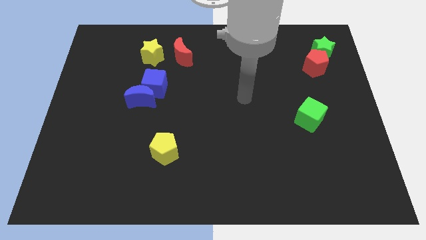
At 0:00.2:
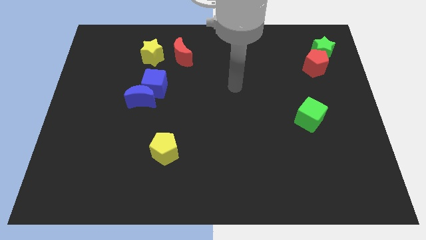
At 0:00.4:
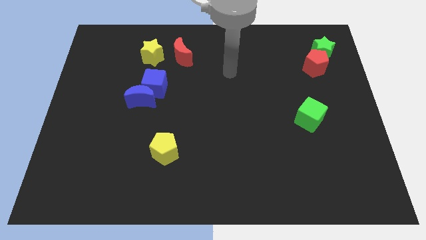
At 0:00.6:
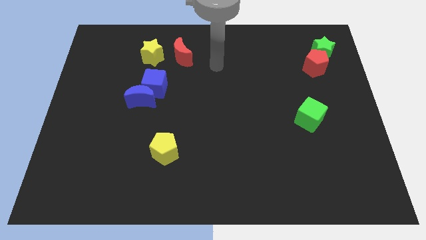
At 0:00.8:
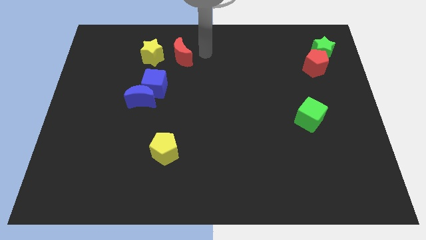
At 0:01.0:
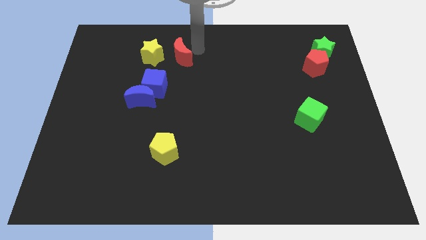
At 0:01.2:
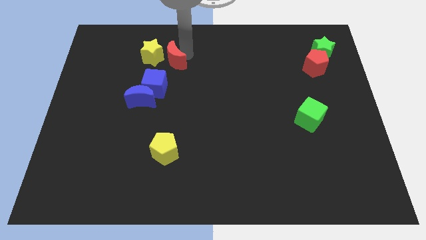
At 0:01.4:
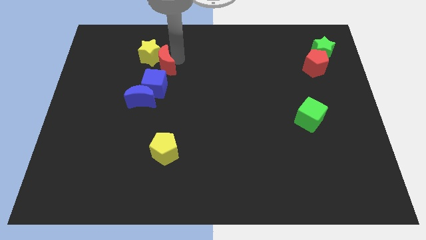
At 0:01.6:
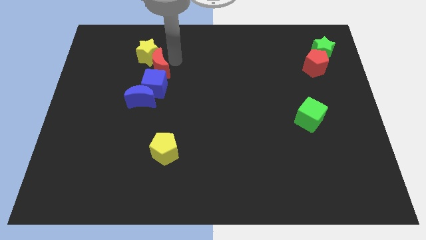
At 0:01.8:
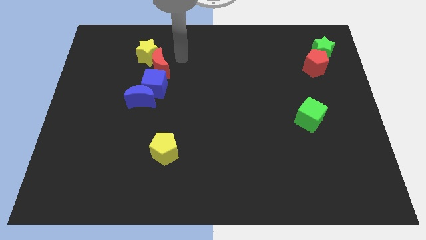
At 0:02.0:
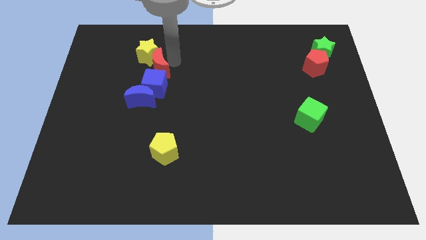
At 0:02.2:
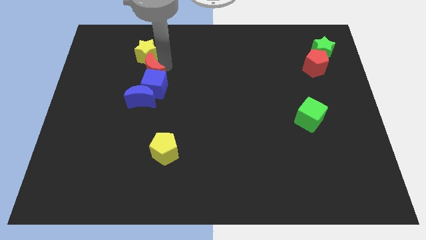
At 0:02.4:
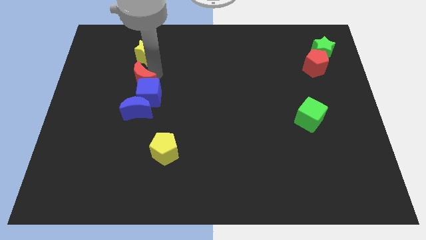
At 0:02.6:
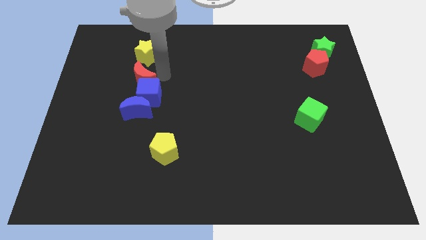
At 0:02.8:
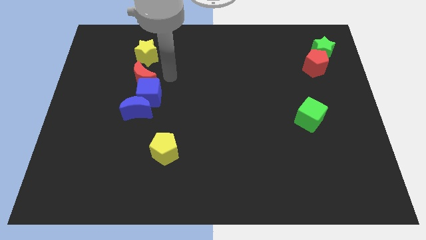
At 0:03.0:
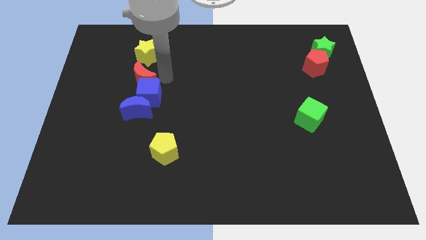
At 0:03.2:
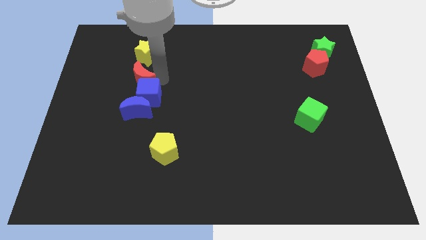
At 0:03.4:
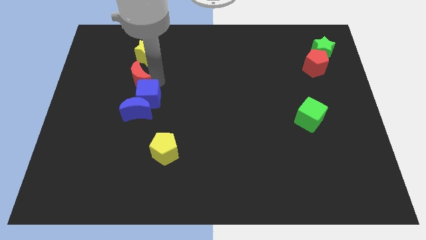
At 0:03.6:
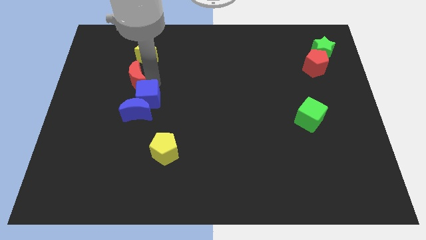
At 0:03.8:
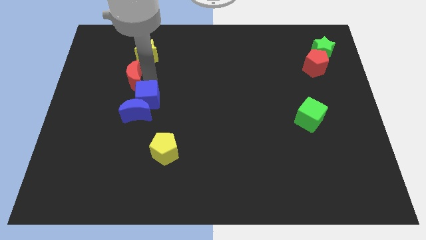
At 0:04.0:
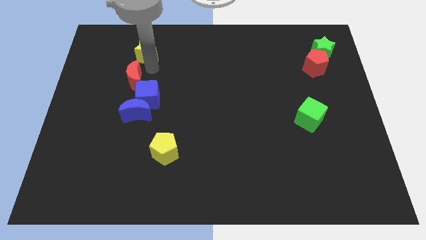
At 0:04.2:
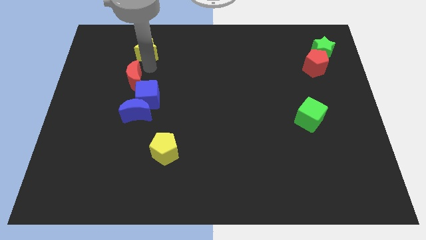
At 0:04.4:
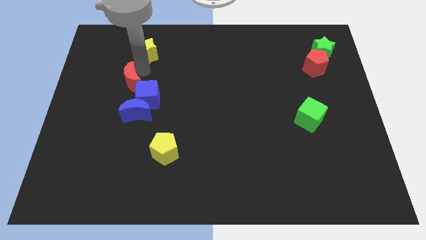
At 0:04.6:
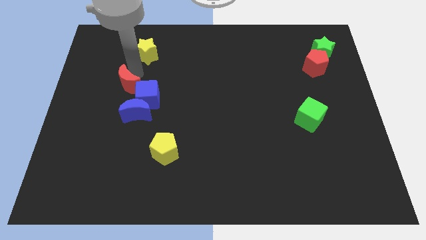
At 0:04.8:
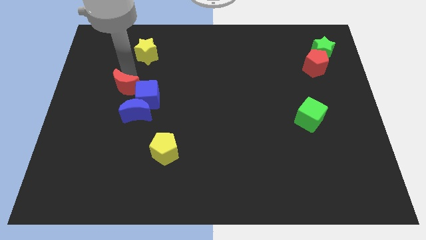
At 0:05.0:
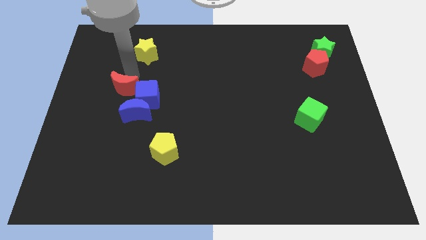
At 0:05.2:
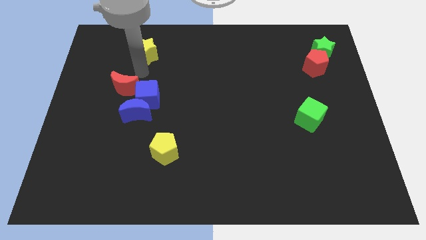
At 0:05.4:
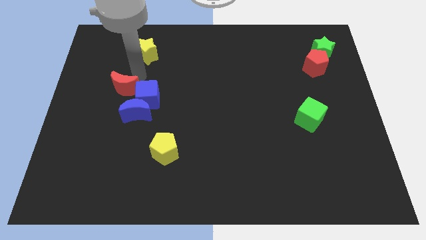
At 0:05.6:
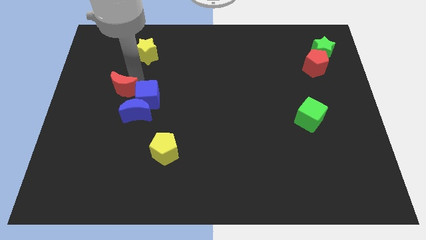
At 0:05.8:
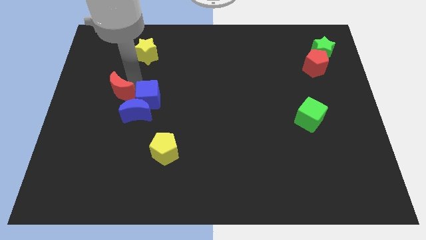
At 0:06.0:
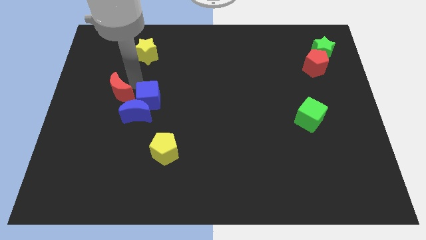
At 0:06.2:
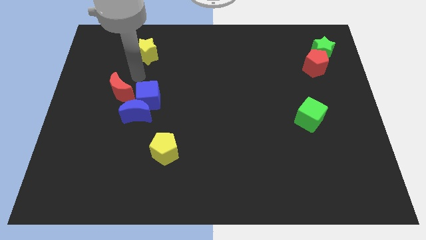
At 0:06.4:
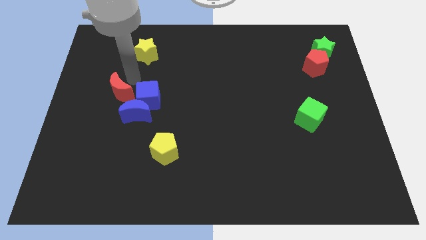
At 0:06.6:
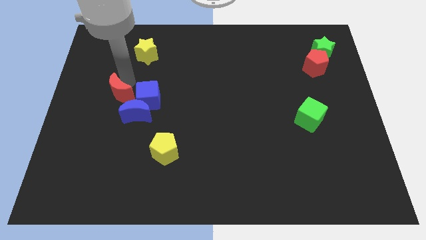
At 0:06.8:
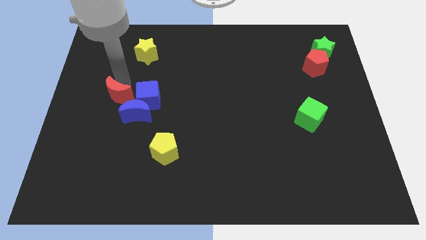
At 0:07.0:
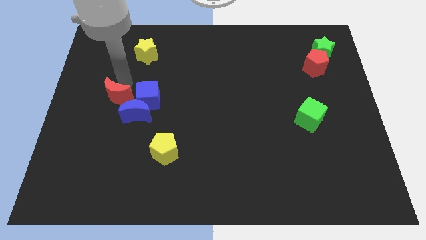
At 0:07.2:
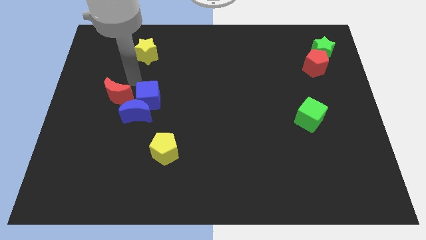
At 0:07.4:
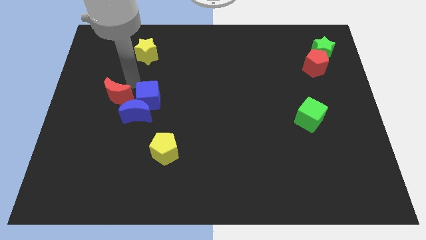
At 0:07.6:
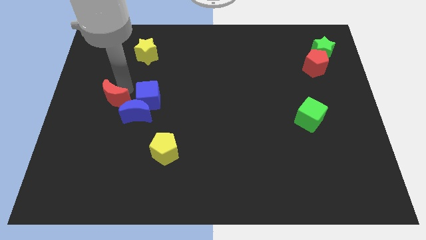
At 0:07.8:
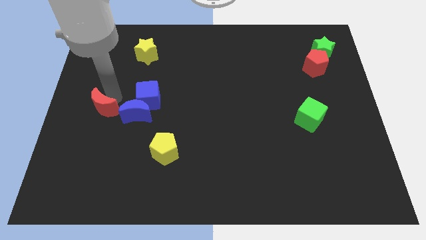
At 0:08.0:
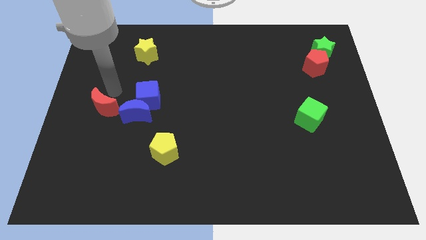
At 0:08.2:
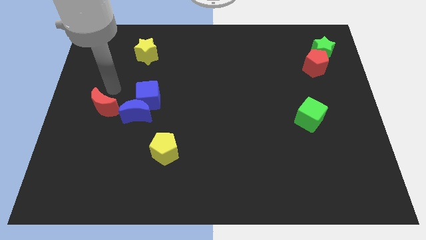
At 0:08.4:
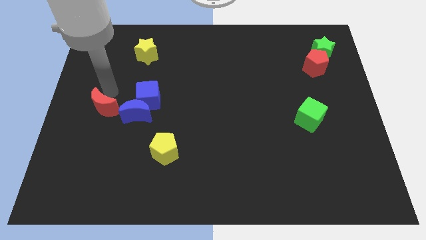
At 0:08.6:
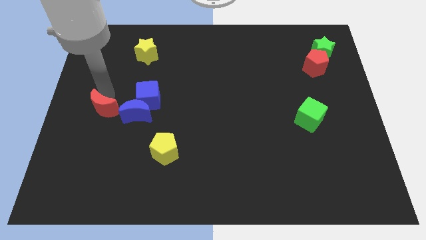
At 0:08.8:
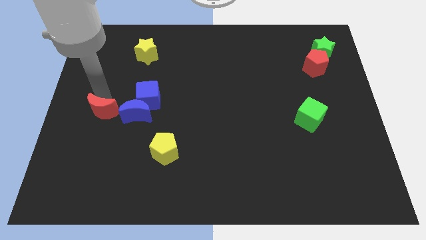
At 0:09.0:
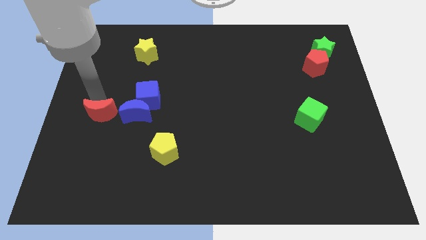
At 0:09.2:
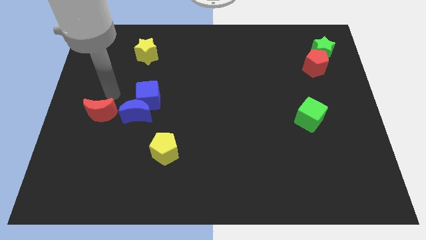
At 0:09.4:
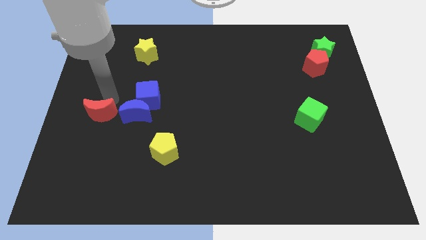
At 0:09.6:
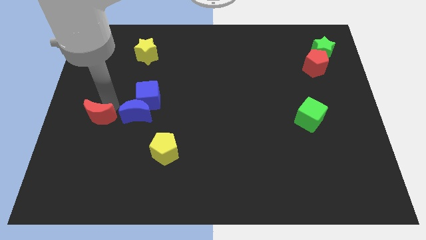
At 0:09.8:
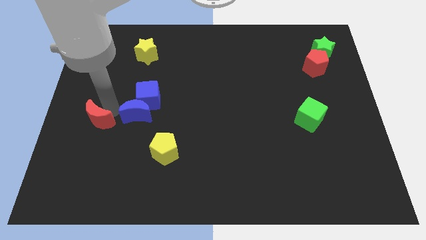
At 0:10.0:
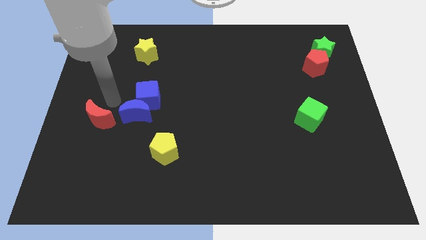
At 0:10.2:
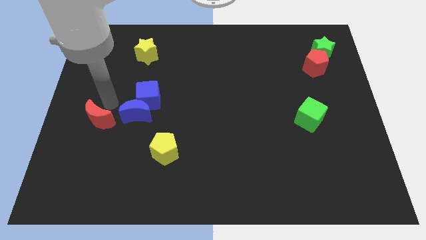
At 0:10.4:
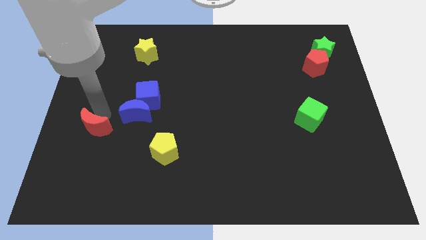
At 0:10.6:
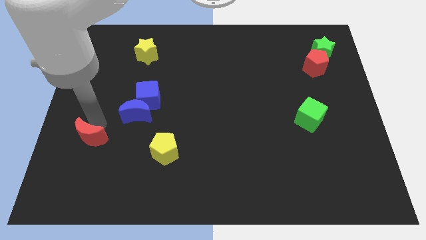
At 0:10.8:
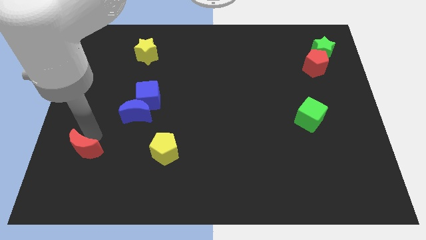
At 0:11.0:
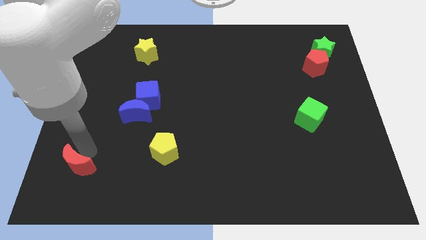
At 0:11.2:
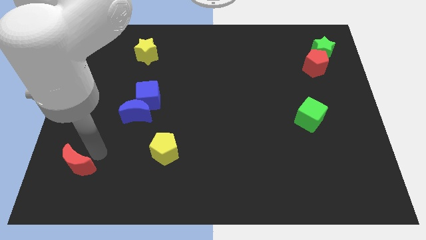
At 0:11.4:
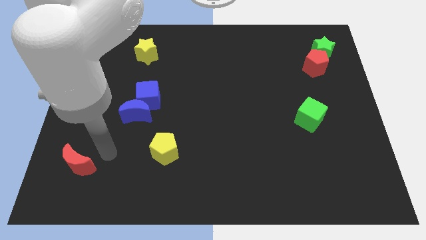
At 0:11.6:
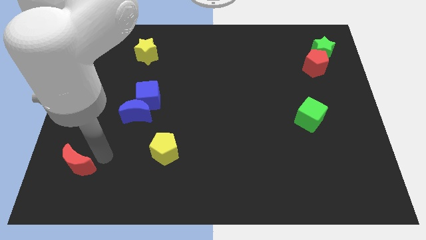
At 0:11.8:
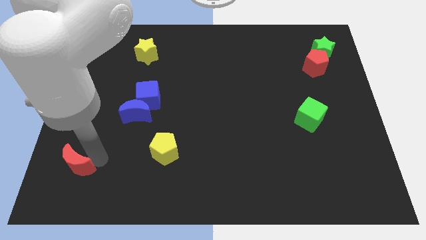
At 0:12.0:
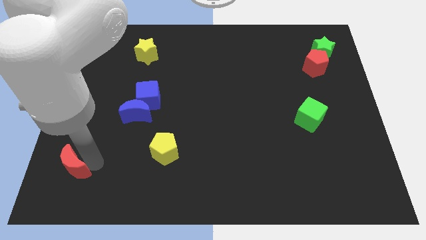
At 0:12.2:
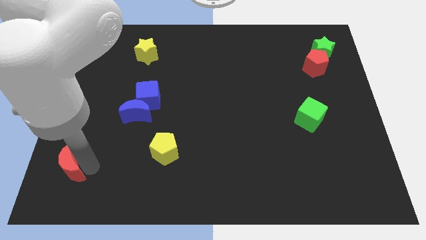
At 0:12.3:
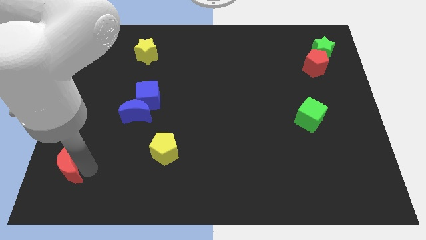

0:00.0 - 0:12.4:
slide the red moon to the lower left corner

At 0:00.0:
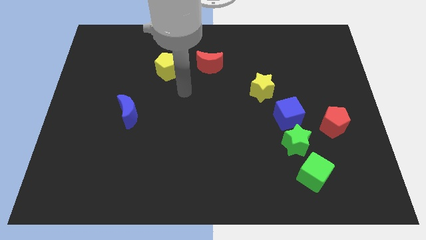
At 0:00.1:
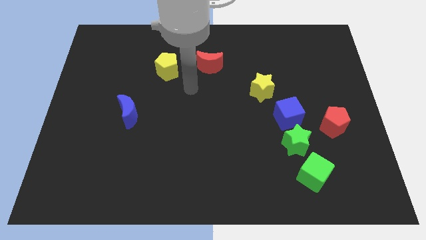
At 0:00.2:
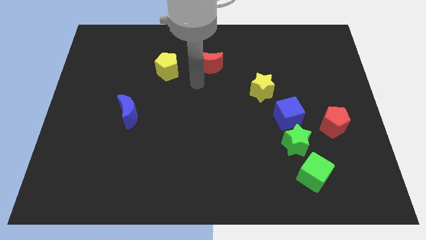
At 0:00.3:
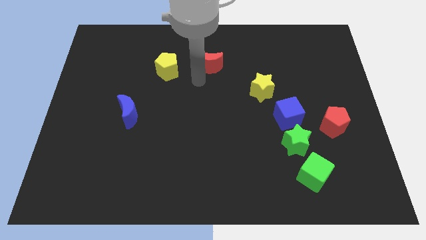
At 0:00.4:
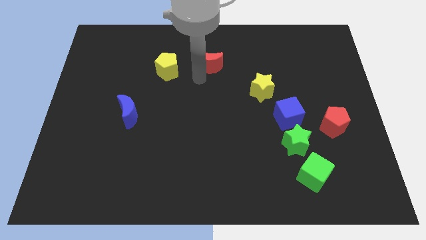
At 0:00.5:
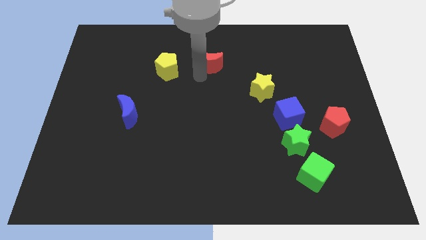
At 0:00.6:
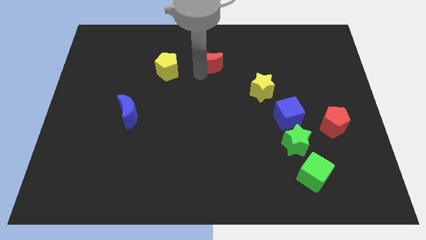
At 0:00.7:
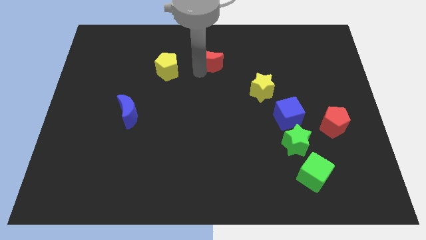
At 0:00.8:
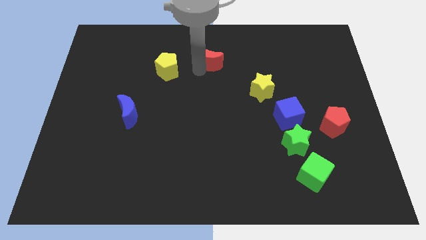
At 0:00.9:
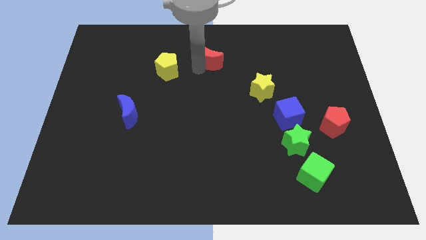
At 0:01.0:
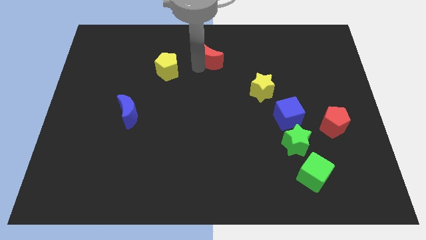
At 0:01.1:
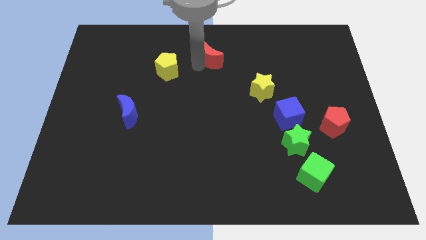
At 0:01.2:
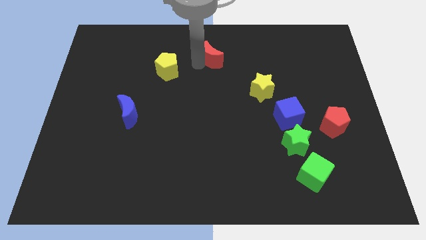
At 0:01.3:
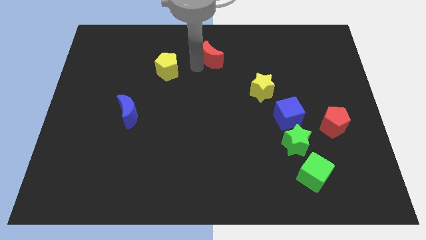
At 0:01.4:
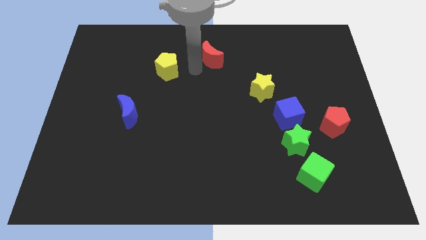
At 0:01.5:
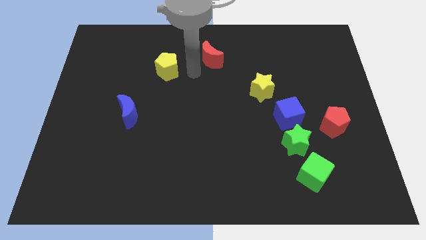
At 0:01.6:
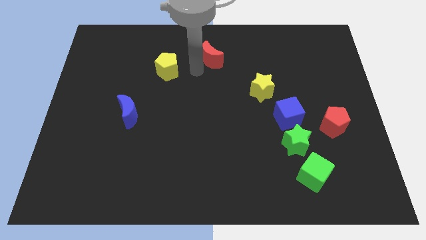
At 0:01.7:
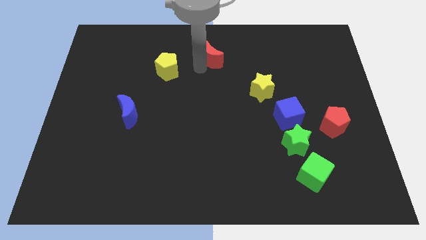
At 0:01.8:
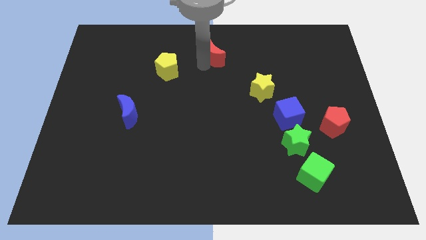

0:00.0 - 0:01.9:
move the red moon to the top
